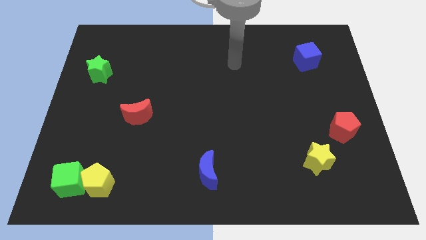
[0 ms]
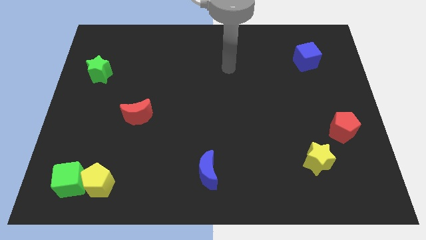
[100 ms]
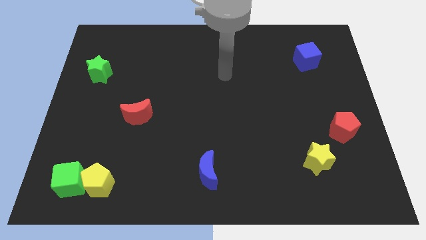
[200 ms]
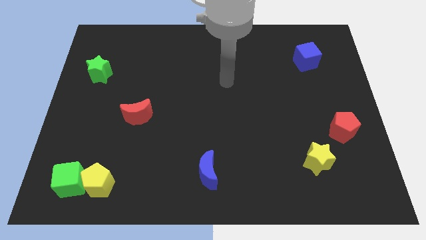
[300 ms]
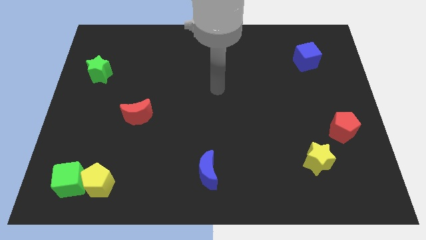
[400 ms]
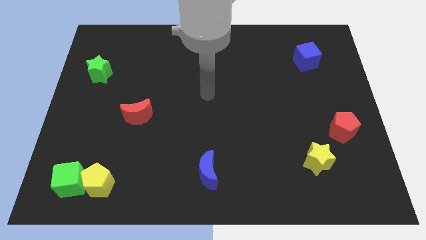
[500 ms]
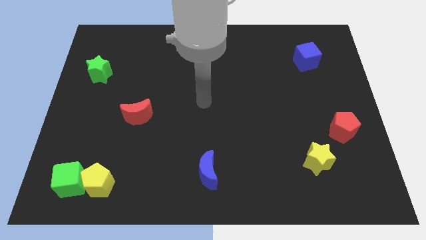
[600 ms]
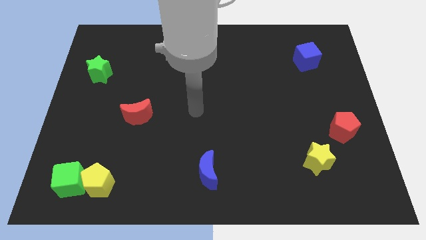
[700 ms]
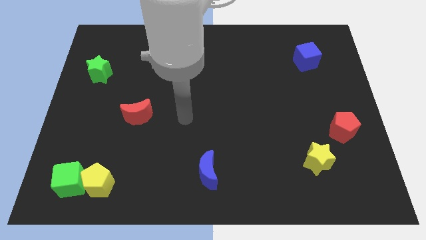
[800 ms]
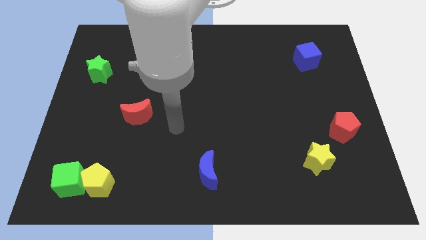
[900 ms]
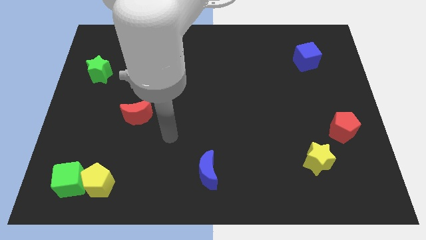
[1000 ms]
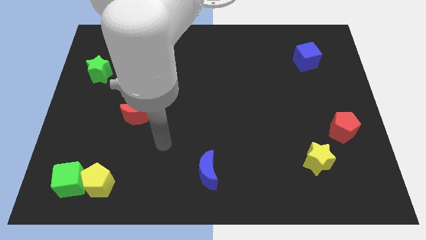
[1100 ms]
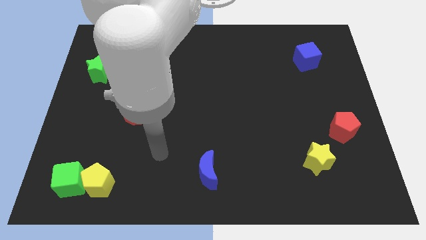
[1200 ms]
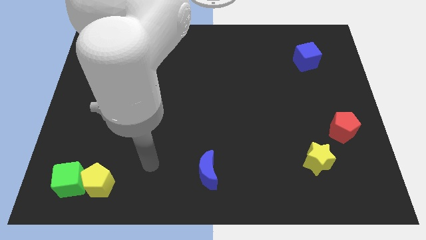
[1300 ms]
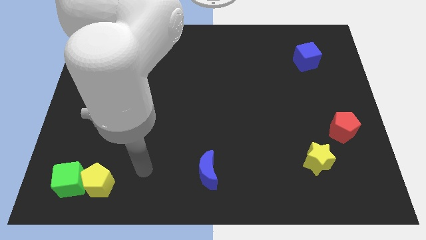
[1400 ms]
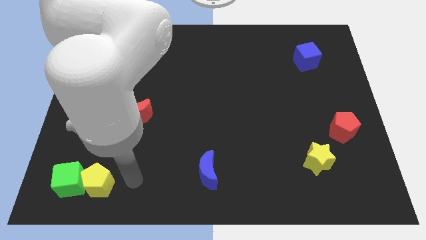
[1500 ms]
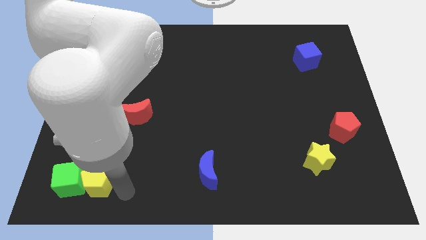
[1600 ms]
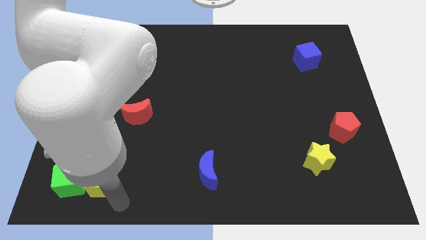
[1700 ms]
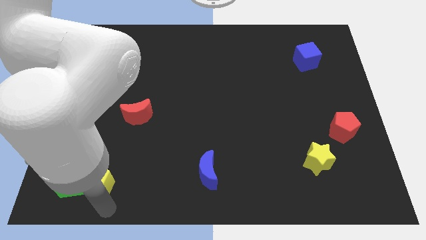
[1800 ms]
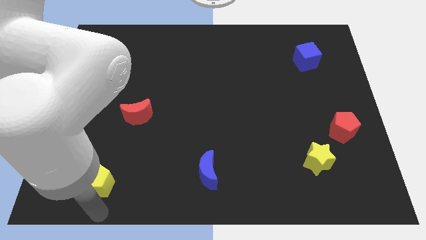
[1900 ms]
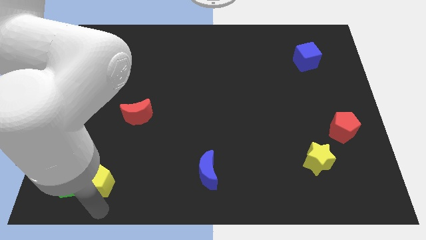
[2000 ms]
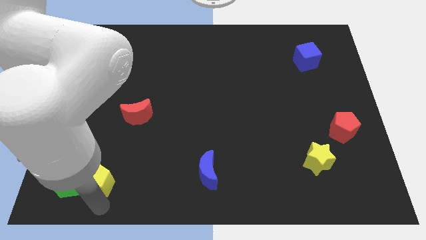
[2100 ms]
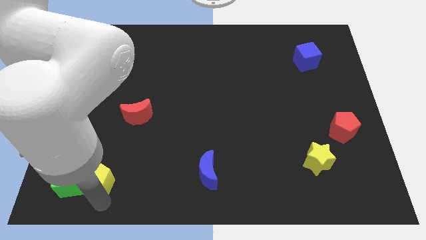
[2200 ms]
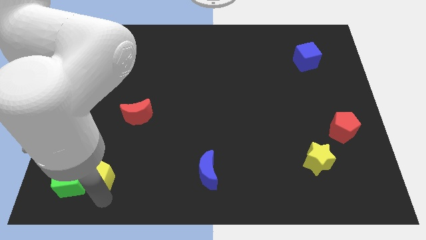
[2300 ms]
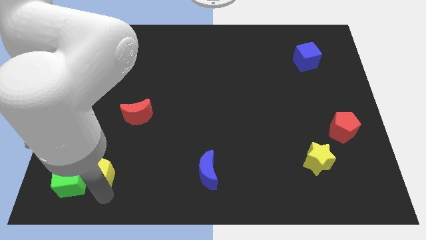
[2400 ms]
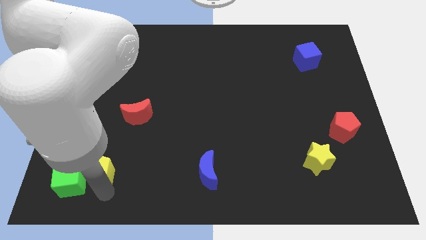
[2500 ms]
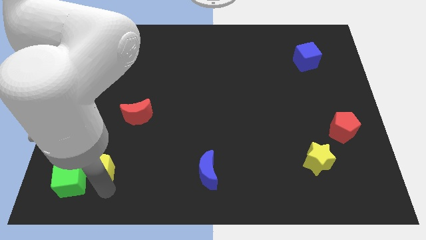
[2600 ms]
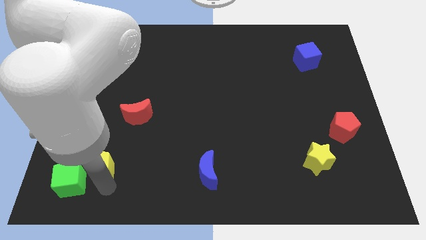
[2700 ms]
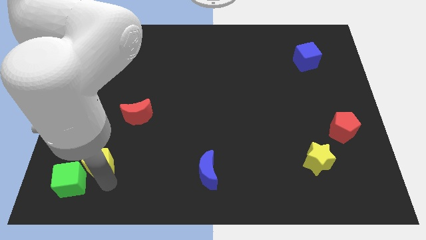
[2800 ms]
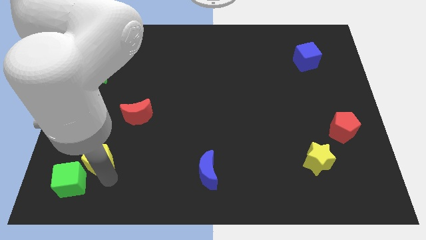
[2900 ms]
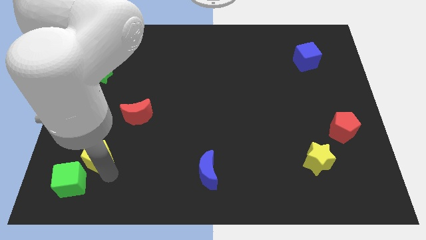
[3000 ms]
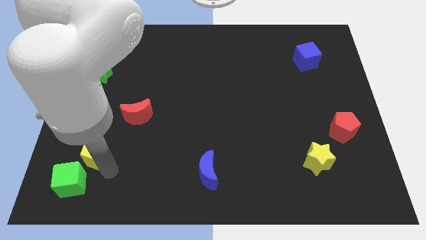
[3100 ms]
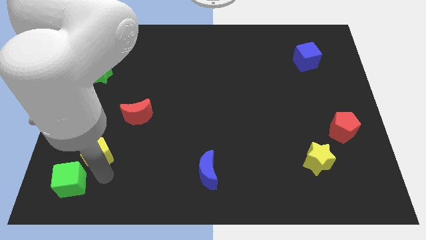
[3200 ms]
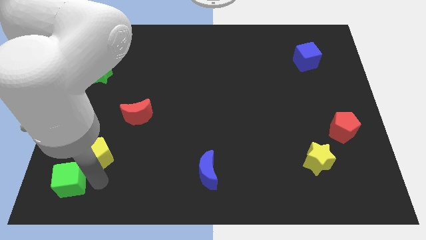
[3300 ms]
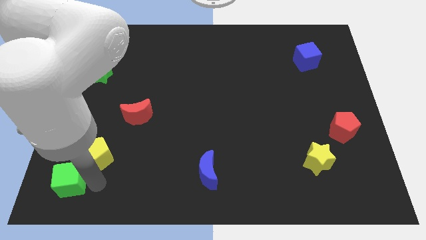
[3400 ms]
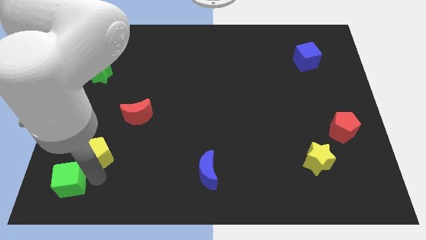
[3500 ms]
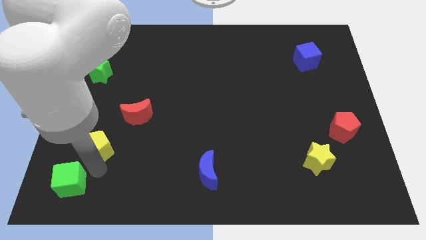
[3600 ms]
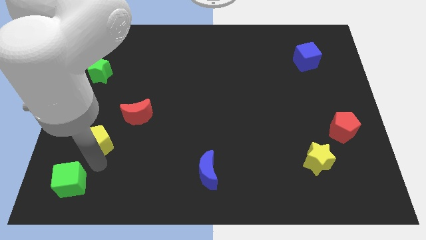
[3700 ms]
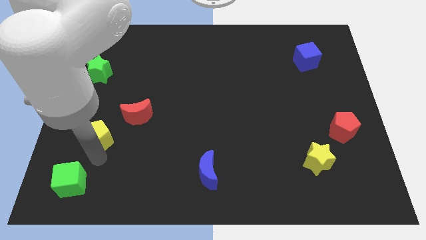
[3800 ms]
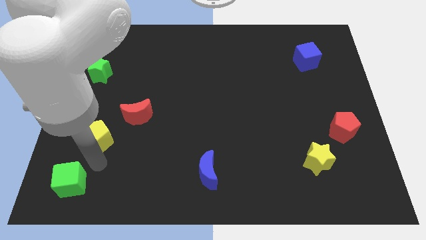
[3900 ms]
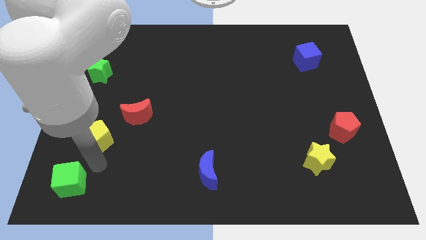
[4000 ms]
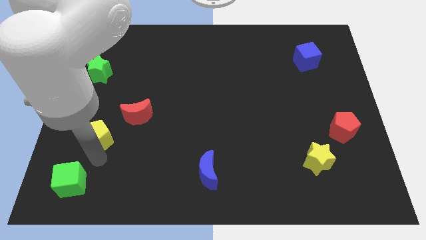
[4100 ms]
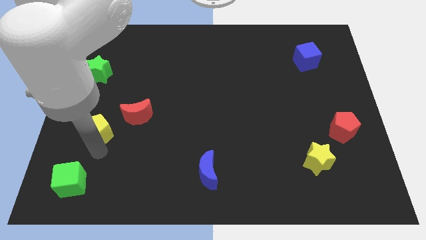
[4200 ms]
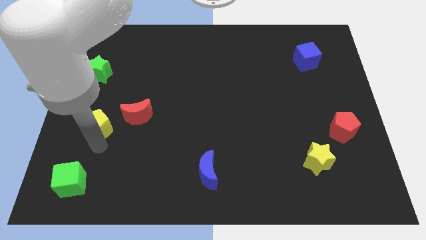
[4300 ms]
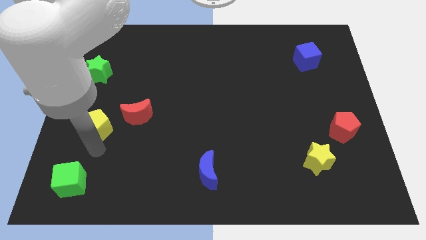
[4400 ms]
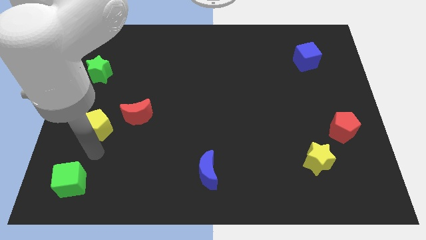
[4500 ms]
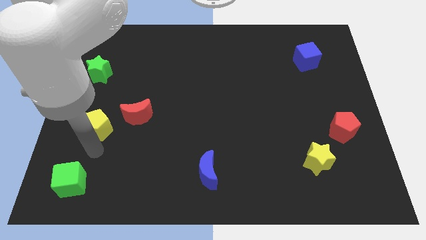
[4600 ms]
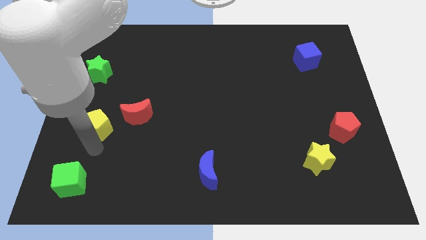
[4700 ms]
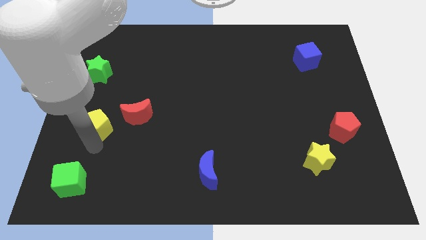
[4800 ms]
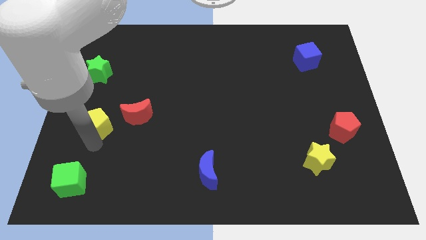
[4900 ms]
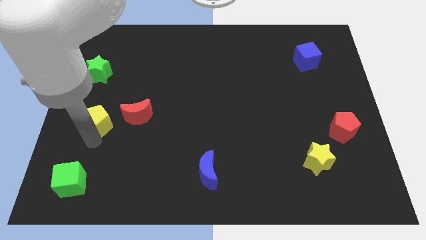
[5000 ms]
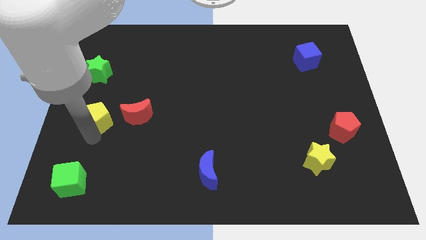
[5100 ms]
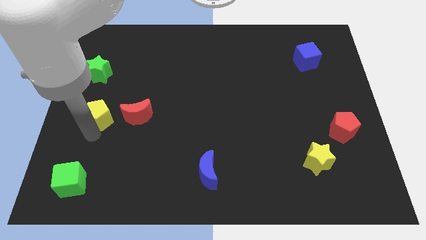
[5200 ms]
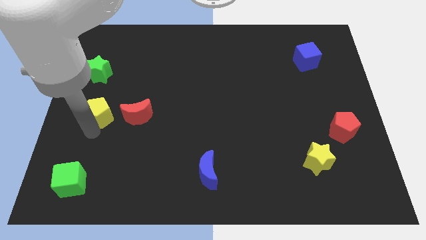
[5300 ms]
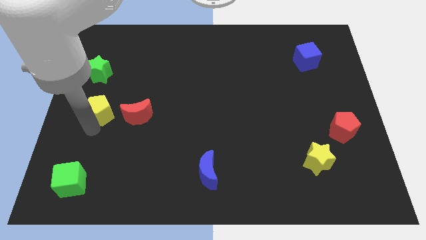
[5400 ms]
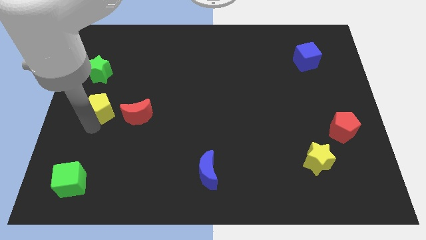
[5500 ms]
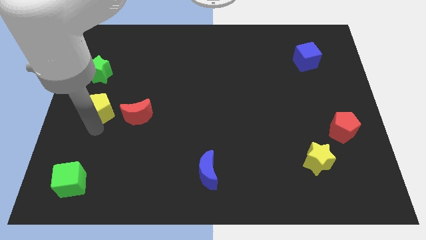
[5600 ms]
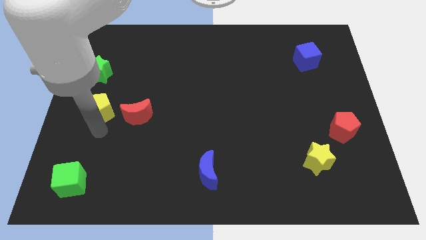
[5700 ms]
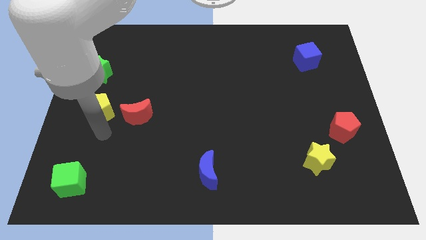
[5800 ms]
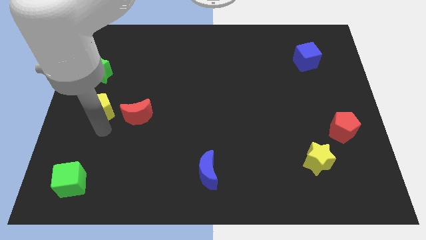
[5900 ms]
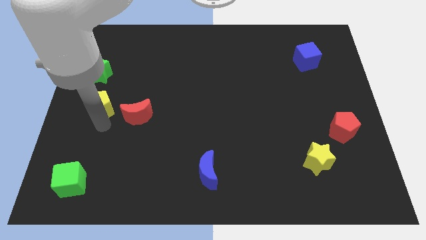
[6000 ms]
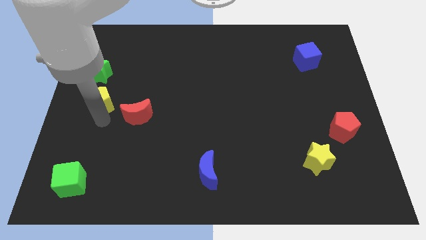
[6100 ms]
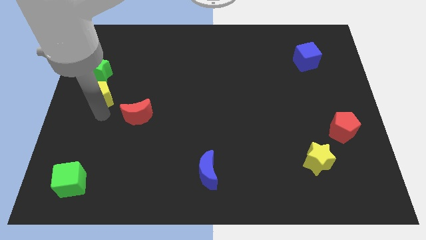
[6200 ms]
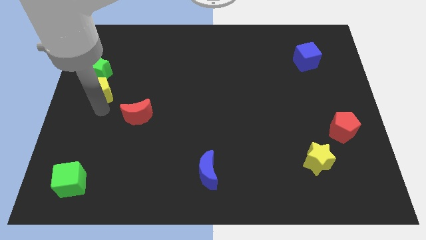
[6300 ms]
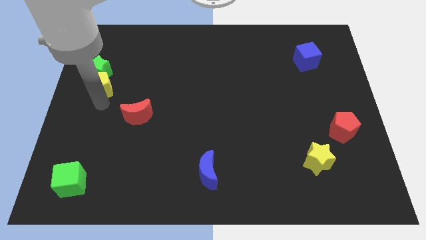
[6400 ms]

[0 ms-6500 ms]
slide the yellow pentagon close to the green star

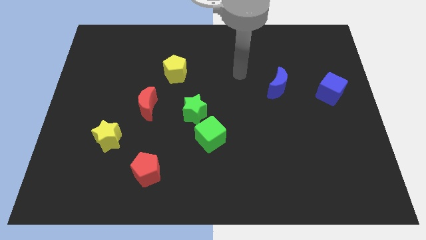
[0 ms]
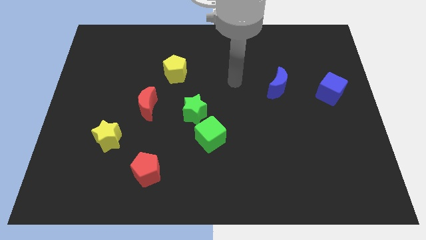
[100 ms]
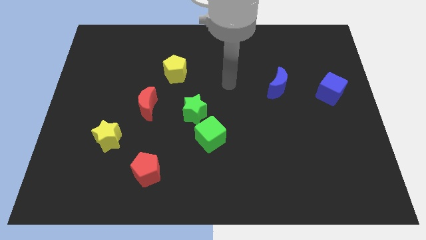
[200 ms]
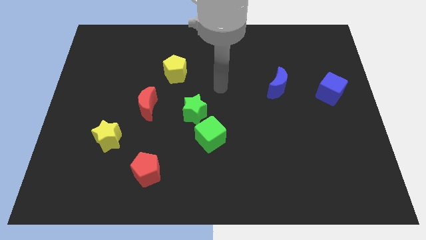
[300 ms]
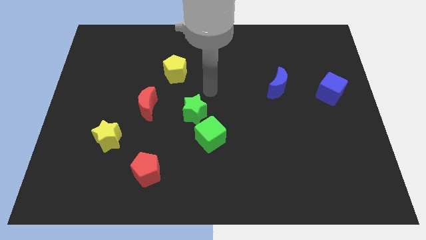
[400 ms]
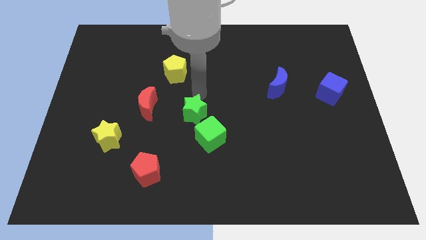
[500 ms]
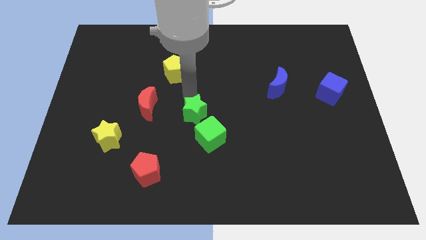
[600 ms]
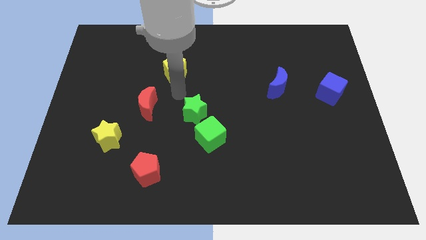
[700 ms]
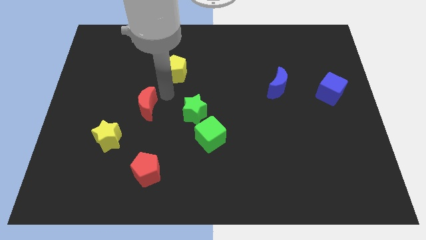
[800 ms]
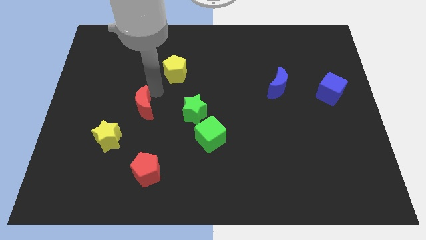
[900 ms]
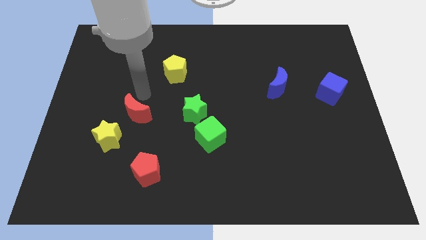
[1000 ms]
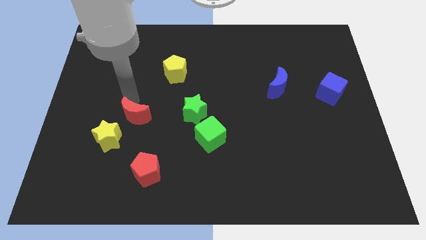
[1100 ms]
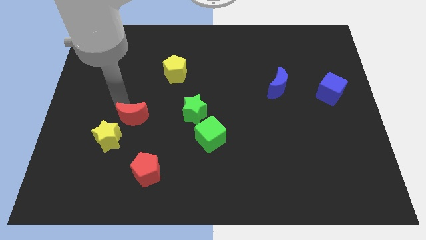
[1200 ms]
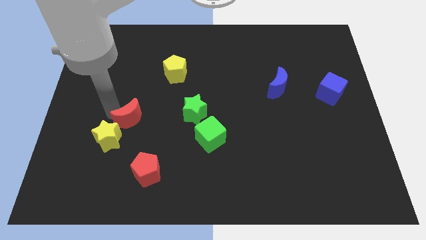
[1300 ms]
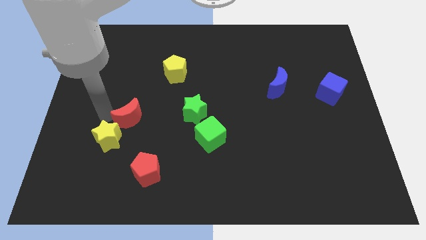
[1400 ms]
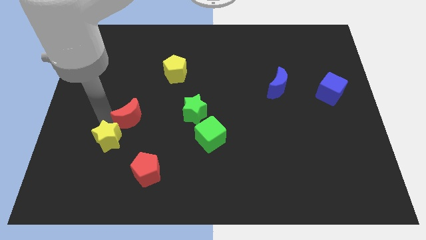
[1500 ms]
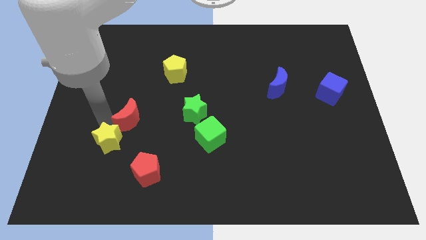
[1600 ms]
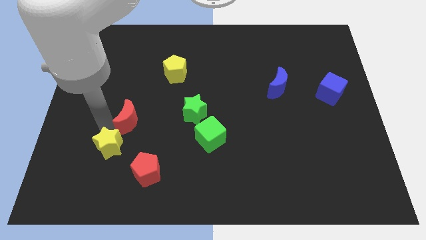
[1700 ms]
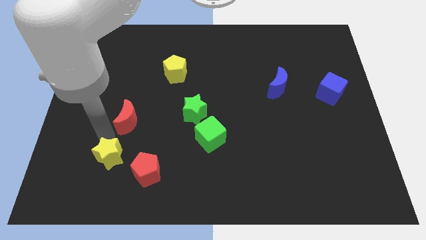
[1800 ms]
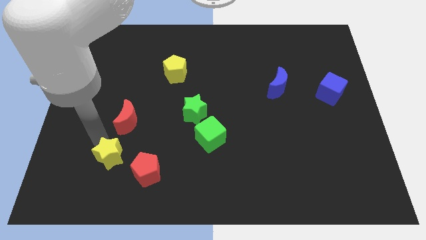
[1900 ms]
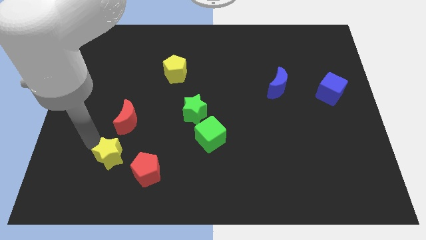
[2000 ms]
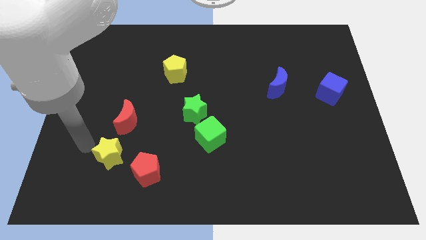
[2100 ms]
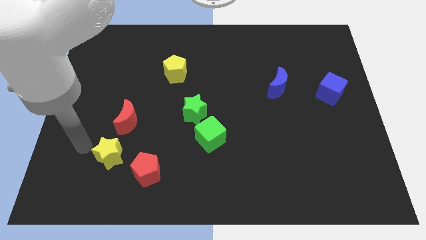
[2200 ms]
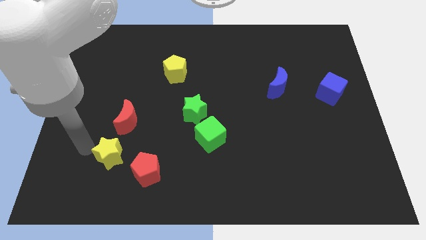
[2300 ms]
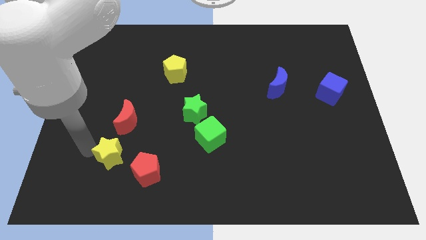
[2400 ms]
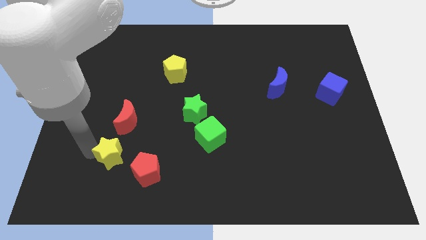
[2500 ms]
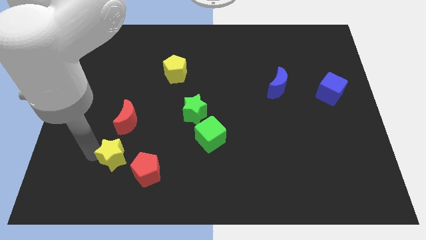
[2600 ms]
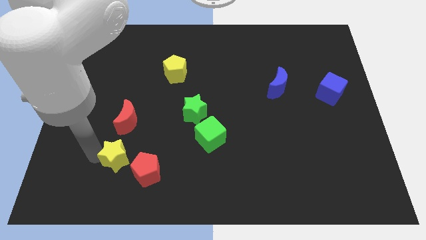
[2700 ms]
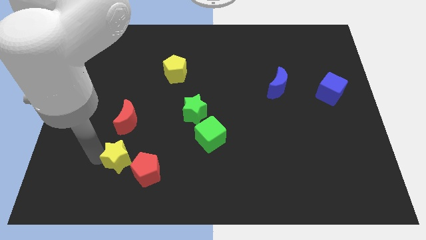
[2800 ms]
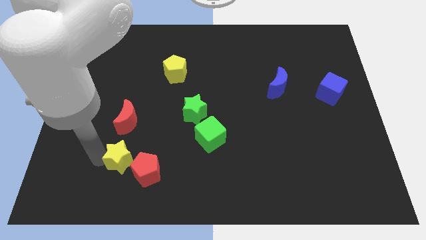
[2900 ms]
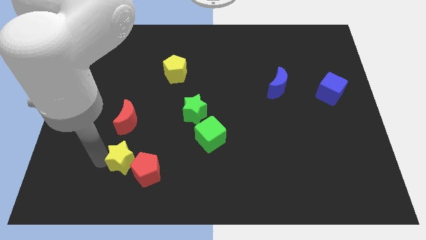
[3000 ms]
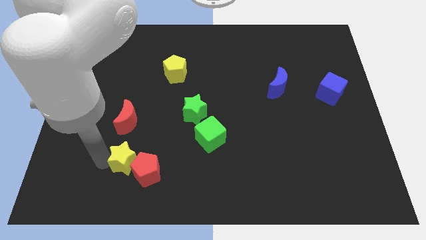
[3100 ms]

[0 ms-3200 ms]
move the yellow star to the red pentagon
